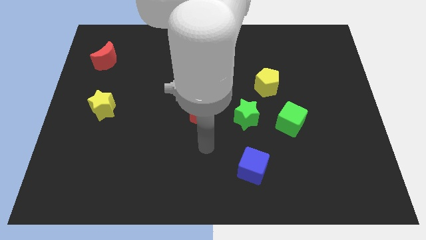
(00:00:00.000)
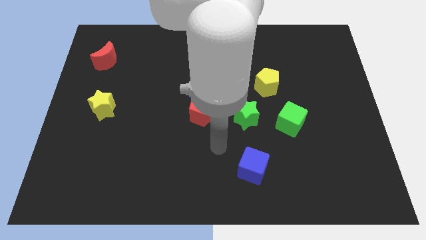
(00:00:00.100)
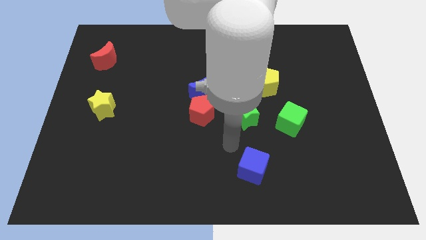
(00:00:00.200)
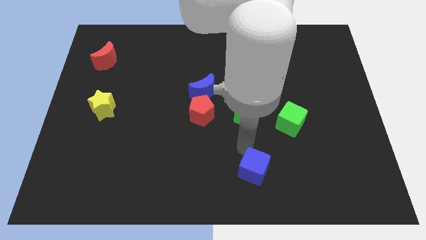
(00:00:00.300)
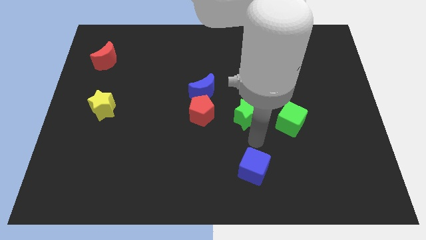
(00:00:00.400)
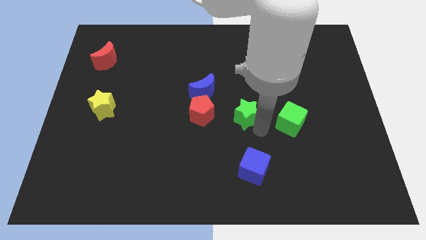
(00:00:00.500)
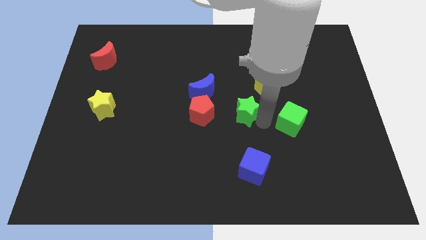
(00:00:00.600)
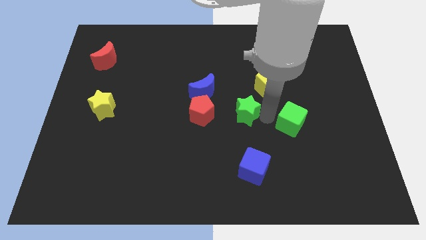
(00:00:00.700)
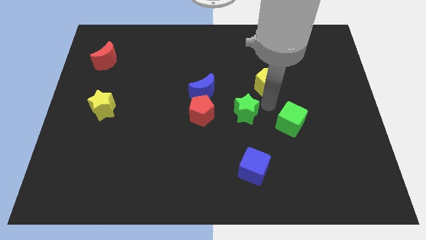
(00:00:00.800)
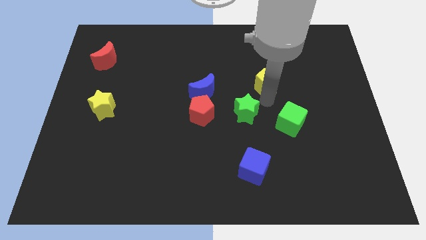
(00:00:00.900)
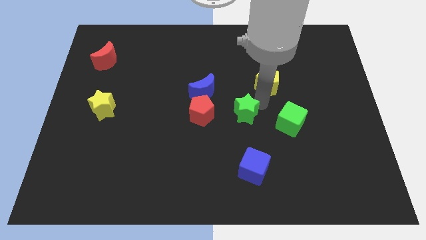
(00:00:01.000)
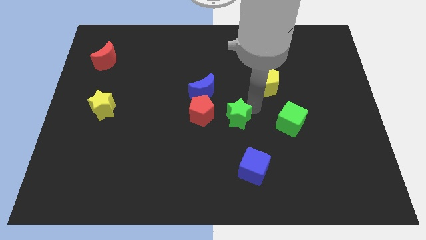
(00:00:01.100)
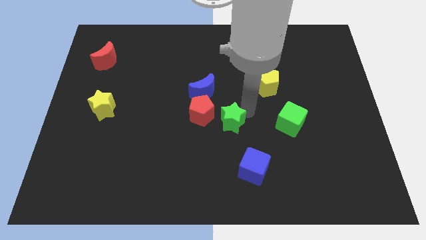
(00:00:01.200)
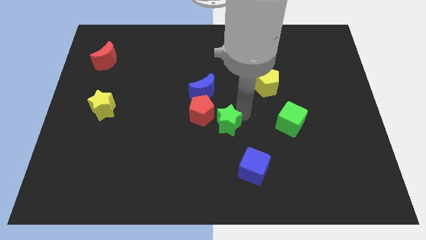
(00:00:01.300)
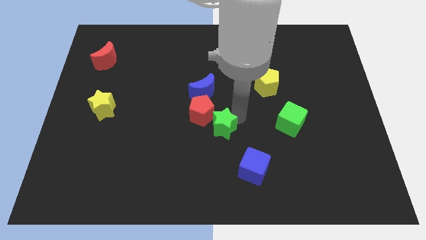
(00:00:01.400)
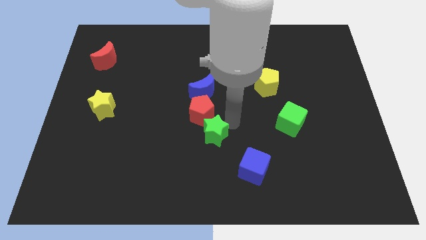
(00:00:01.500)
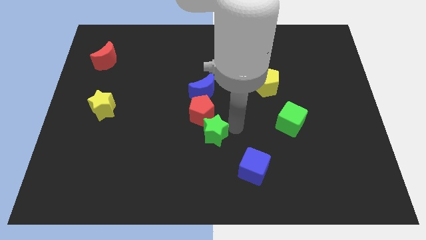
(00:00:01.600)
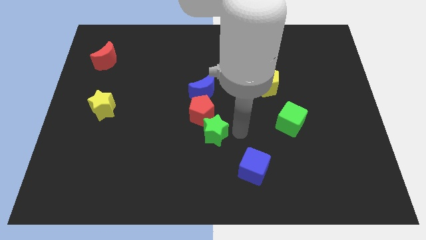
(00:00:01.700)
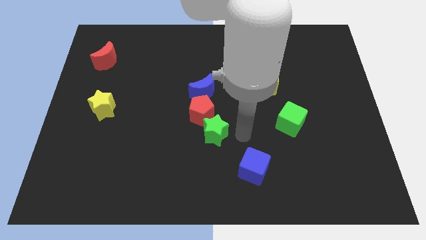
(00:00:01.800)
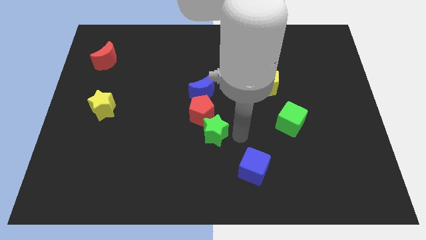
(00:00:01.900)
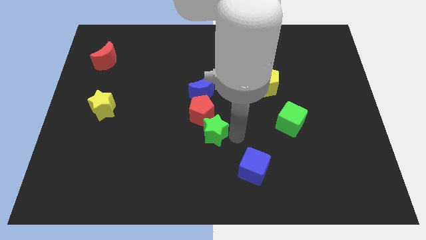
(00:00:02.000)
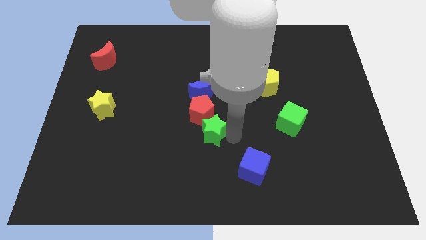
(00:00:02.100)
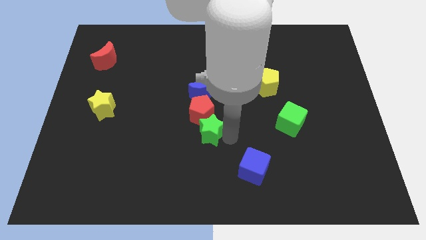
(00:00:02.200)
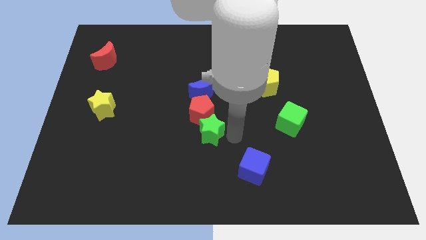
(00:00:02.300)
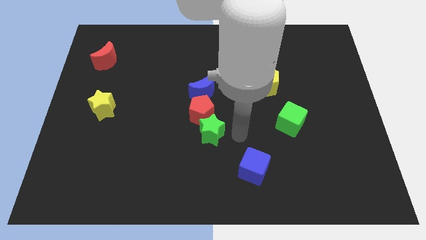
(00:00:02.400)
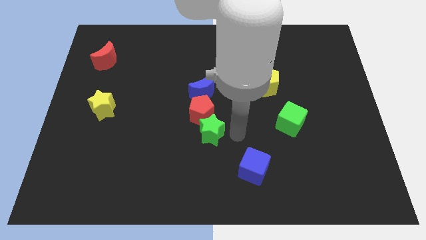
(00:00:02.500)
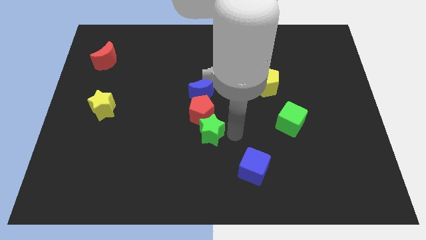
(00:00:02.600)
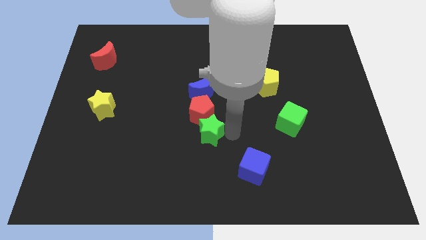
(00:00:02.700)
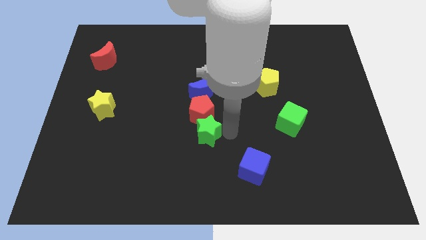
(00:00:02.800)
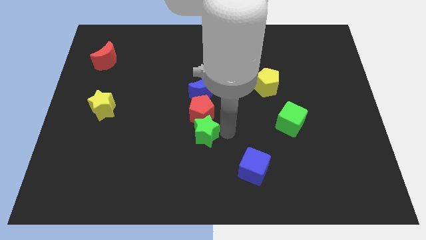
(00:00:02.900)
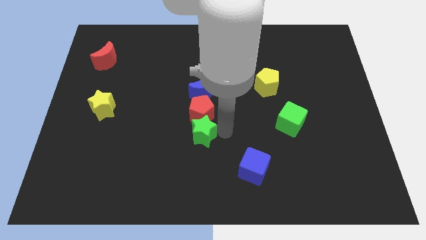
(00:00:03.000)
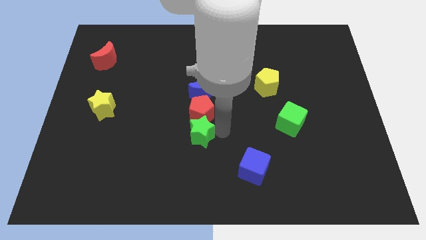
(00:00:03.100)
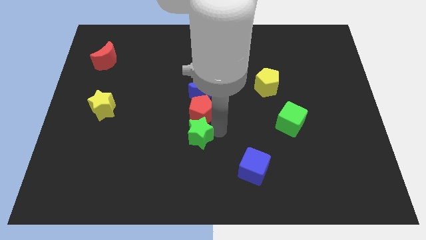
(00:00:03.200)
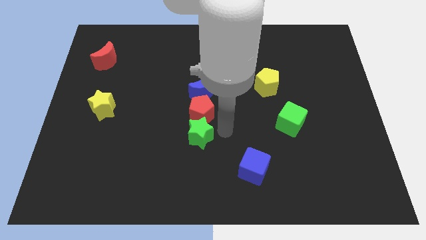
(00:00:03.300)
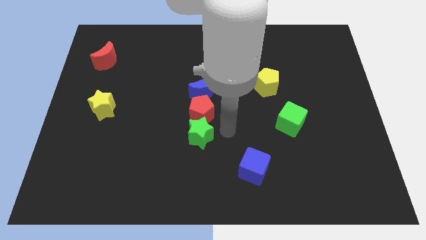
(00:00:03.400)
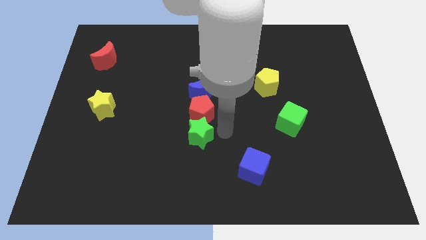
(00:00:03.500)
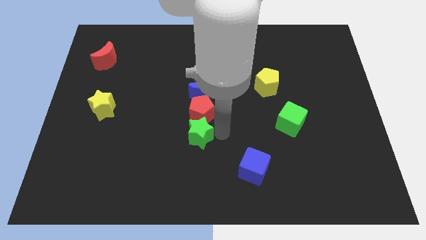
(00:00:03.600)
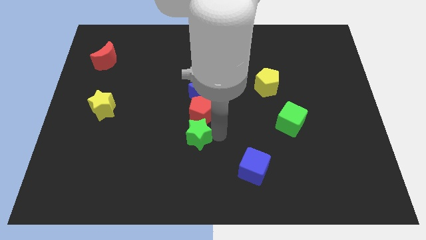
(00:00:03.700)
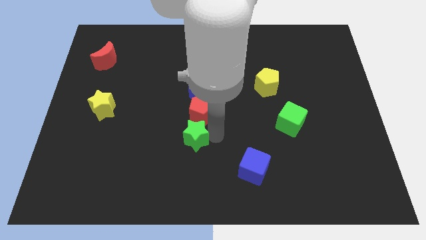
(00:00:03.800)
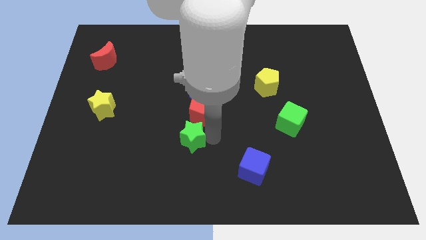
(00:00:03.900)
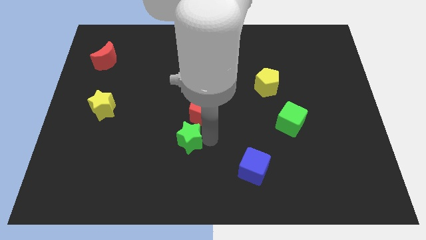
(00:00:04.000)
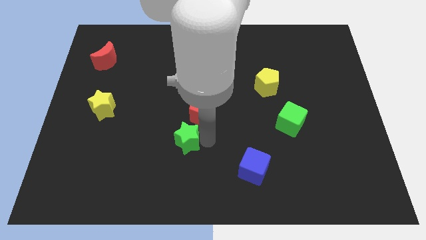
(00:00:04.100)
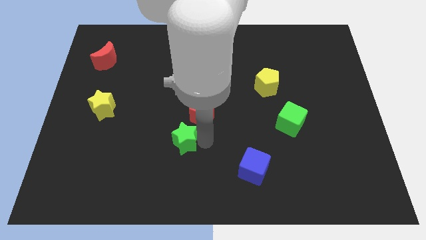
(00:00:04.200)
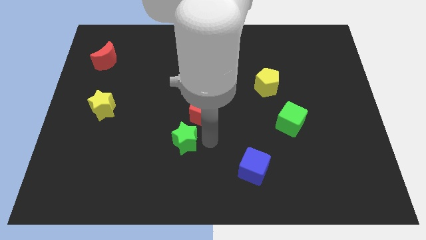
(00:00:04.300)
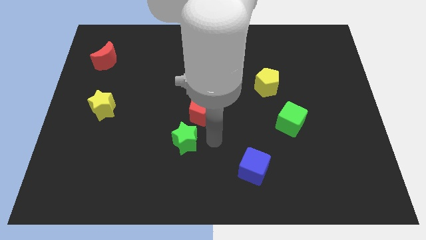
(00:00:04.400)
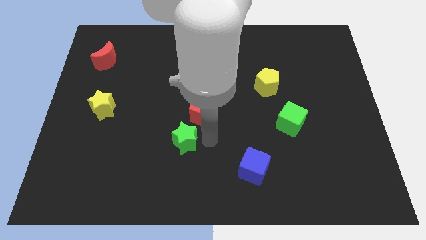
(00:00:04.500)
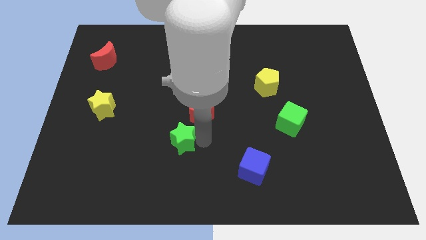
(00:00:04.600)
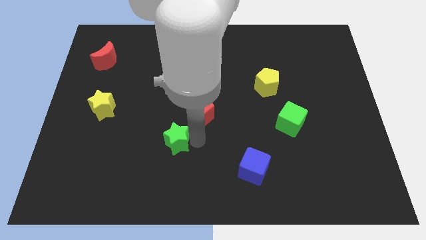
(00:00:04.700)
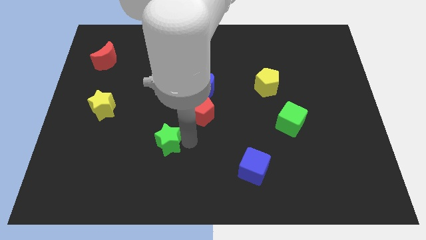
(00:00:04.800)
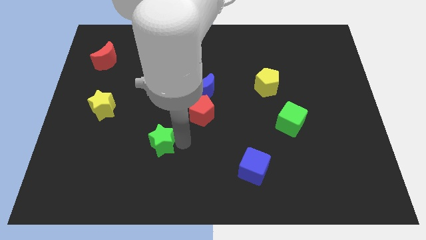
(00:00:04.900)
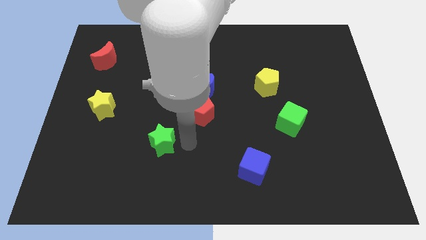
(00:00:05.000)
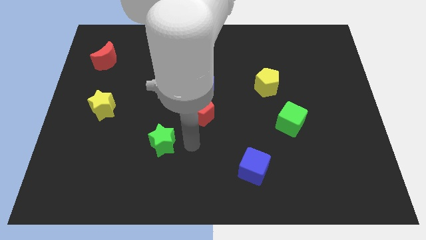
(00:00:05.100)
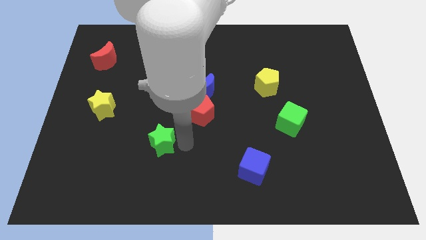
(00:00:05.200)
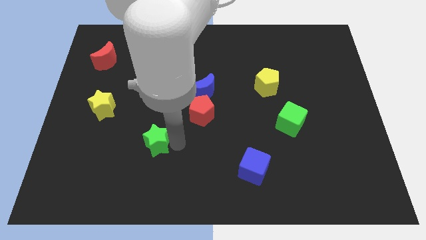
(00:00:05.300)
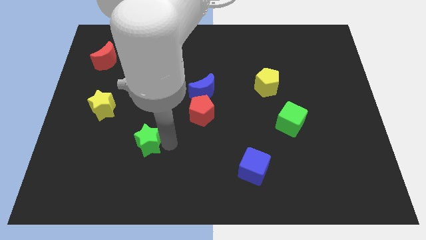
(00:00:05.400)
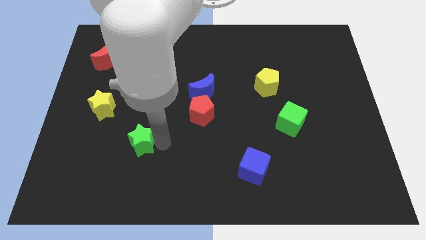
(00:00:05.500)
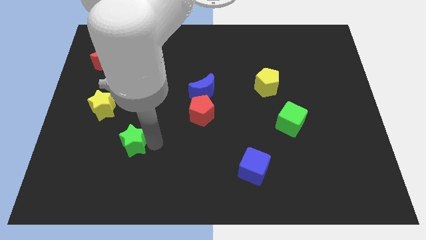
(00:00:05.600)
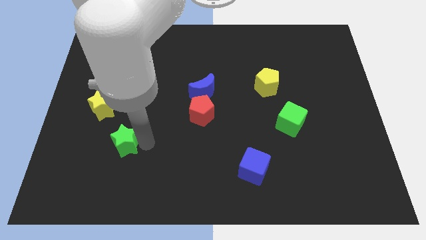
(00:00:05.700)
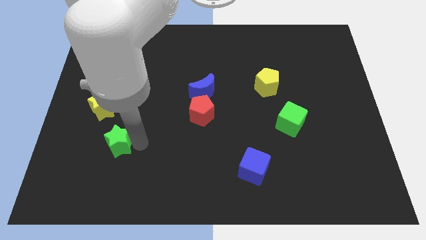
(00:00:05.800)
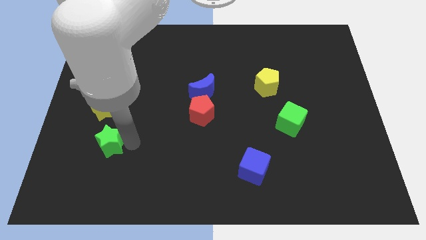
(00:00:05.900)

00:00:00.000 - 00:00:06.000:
slide the green star below the yellow star
